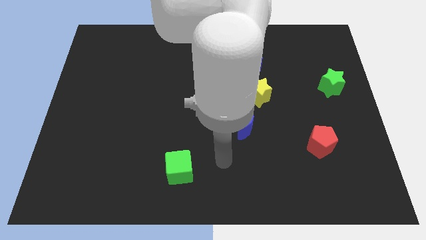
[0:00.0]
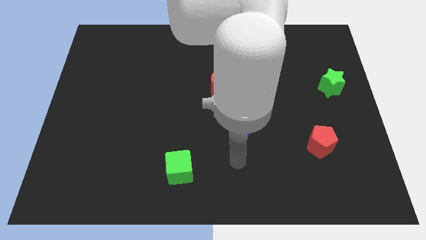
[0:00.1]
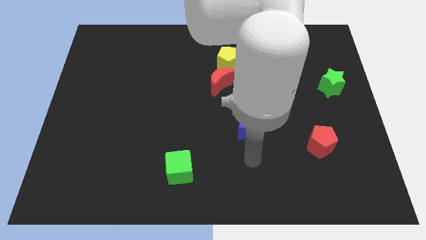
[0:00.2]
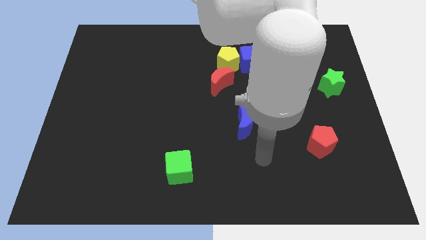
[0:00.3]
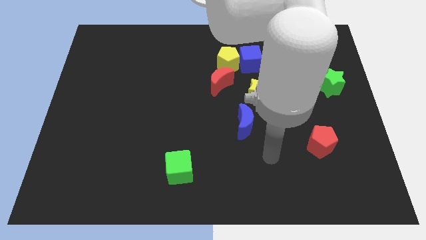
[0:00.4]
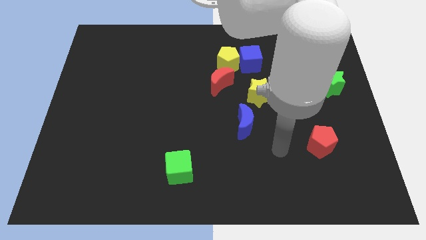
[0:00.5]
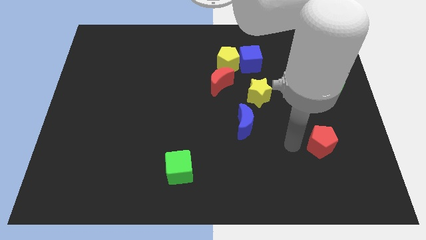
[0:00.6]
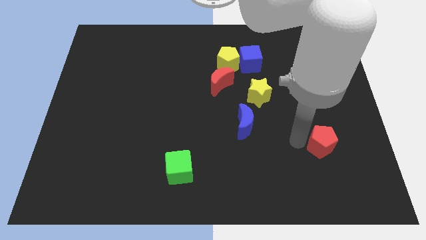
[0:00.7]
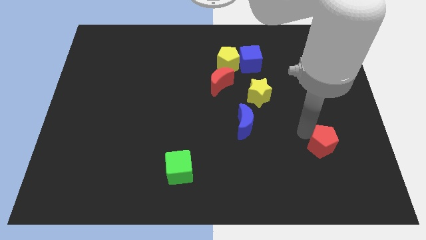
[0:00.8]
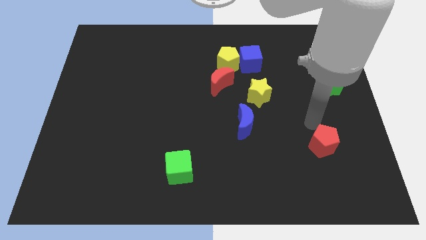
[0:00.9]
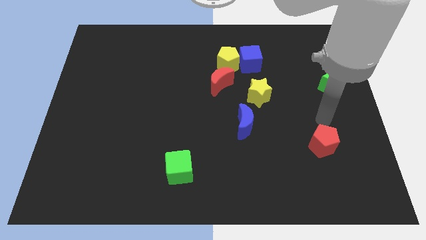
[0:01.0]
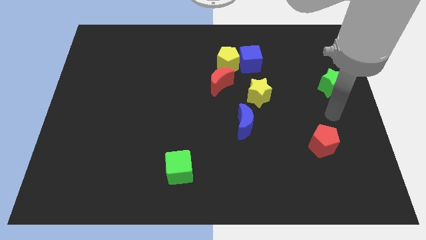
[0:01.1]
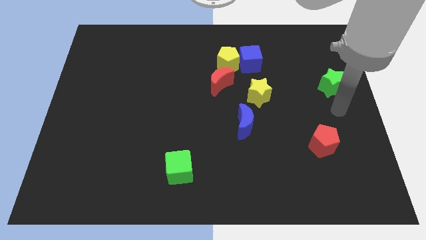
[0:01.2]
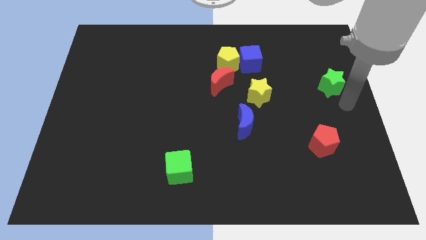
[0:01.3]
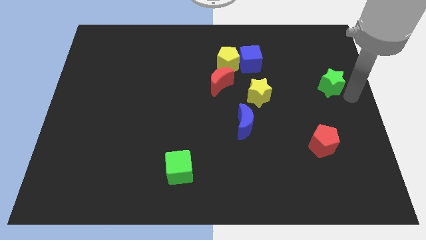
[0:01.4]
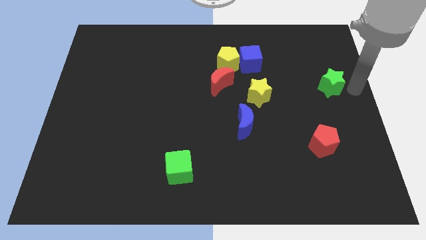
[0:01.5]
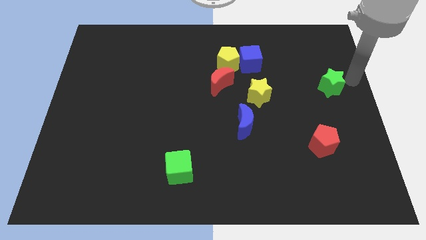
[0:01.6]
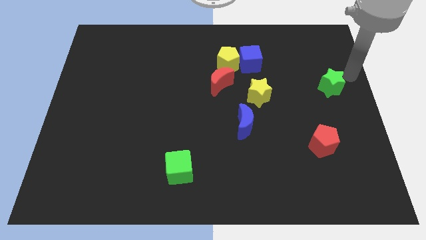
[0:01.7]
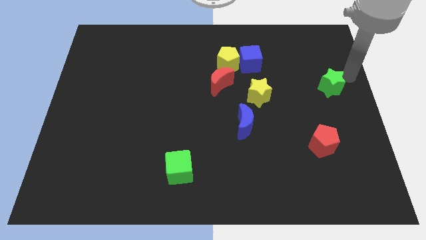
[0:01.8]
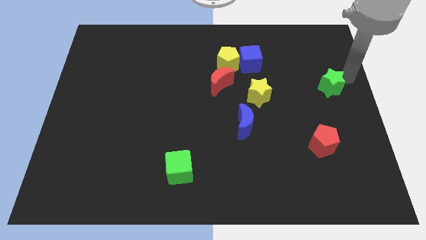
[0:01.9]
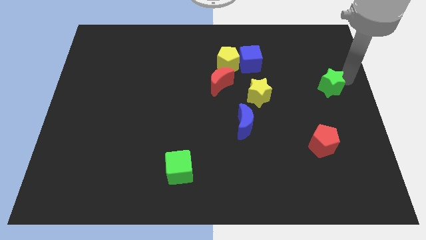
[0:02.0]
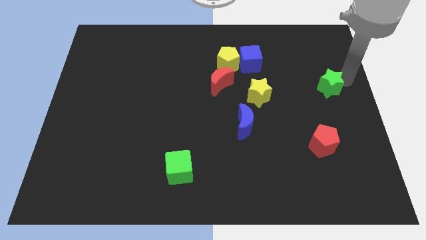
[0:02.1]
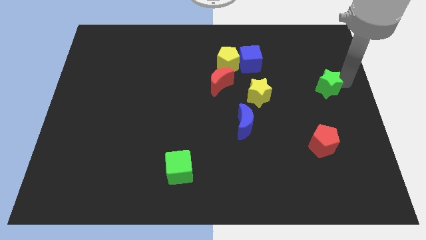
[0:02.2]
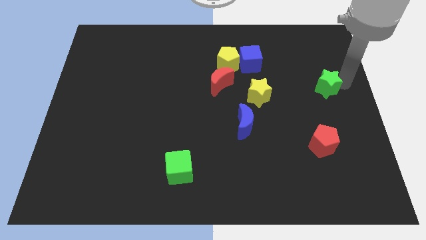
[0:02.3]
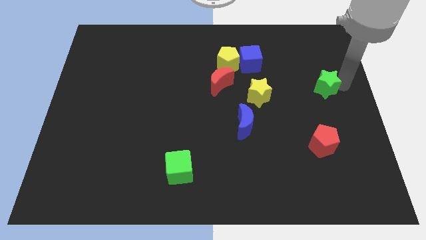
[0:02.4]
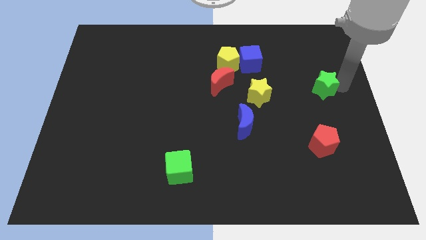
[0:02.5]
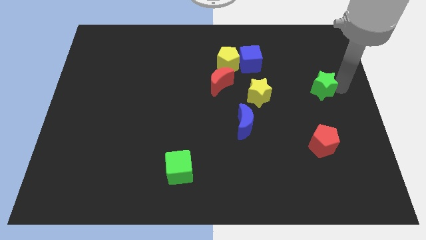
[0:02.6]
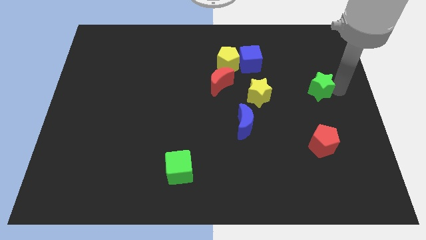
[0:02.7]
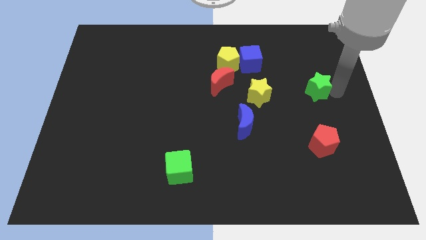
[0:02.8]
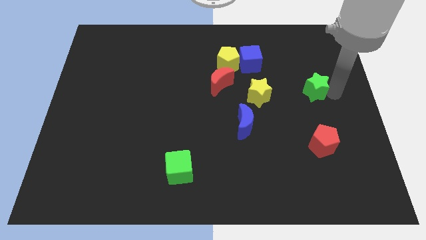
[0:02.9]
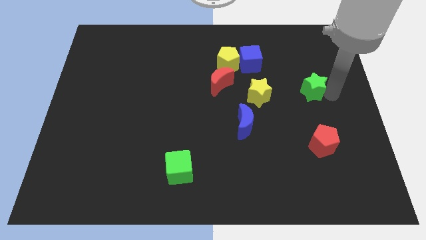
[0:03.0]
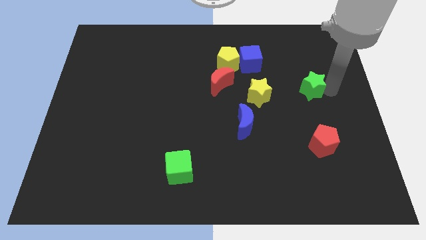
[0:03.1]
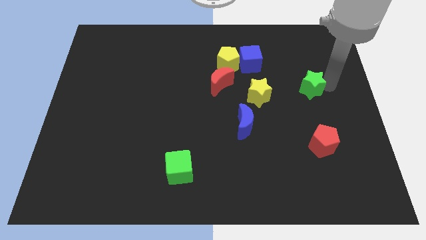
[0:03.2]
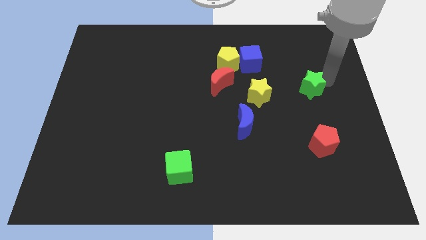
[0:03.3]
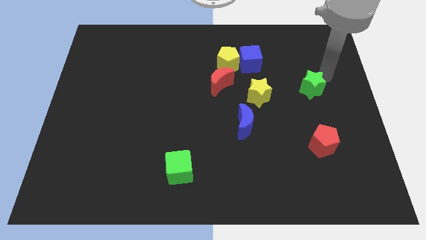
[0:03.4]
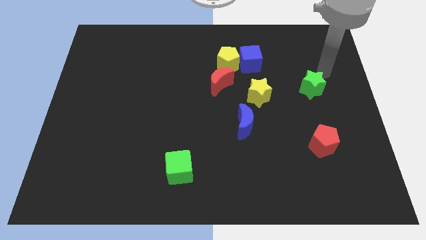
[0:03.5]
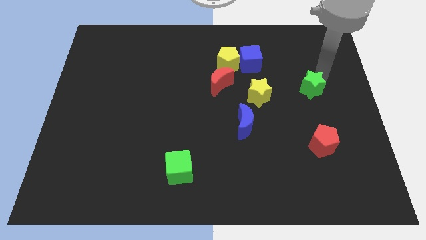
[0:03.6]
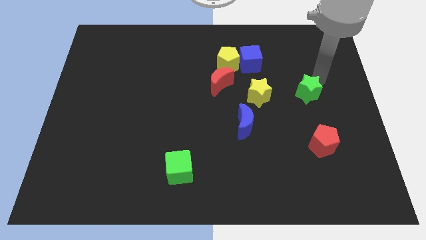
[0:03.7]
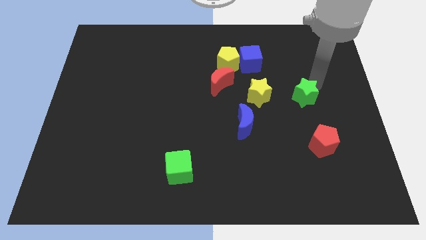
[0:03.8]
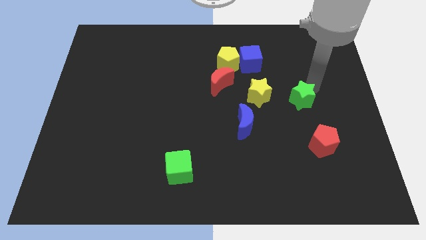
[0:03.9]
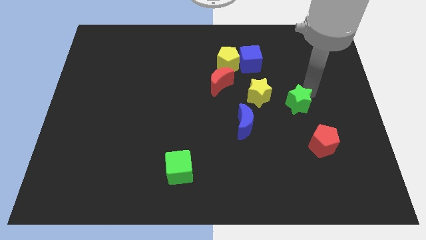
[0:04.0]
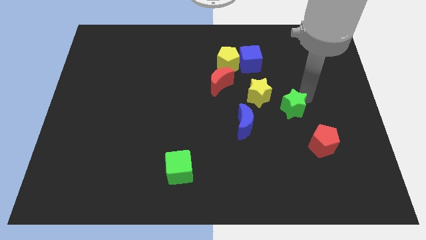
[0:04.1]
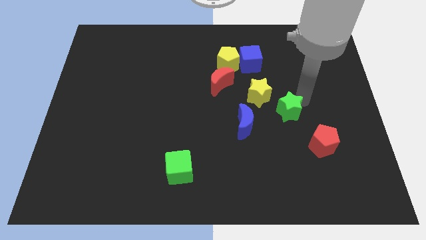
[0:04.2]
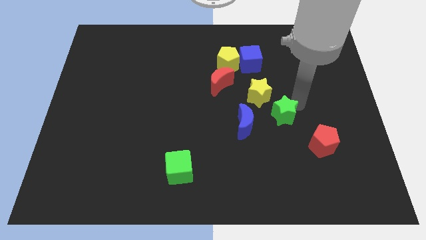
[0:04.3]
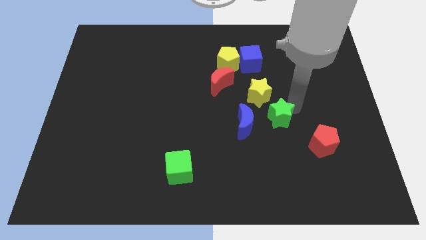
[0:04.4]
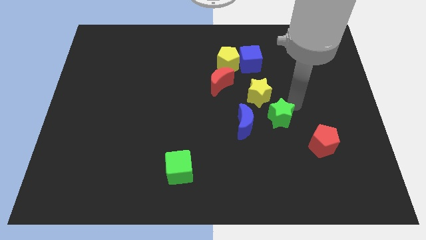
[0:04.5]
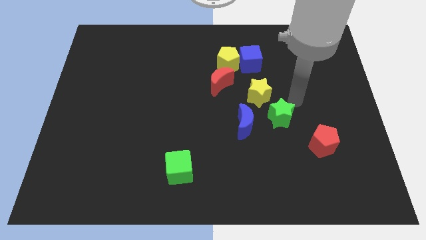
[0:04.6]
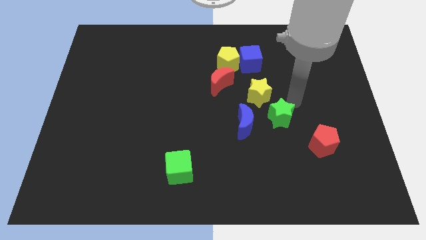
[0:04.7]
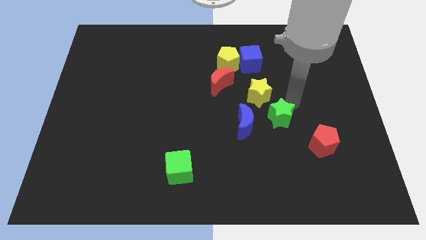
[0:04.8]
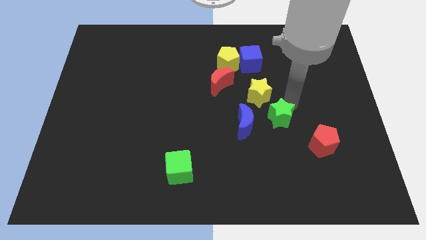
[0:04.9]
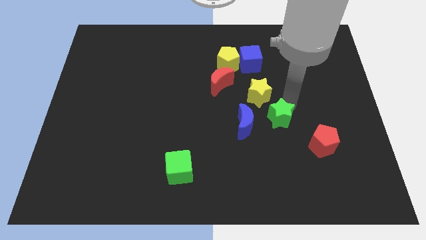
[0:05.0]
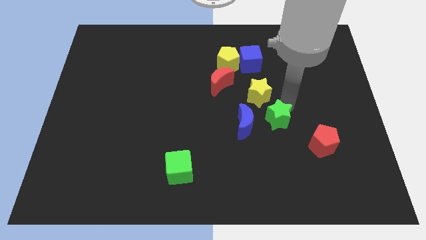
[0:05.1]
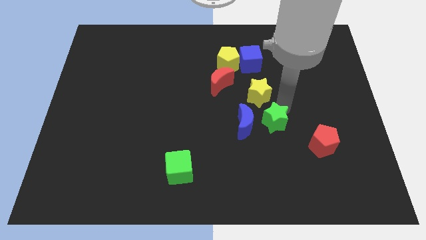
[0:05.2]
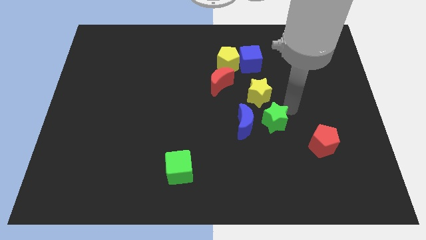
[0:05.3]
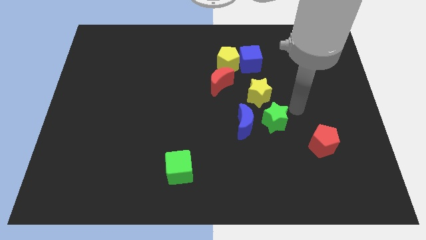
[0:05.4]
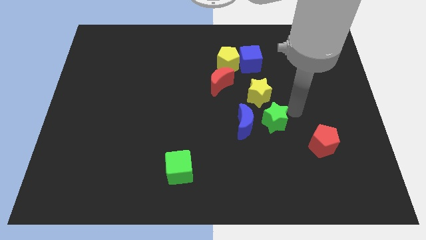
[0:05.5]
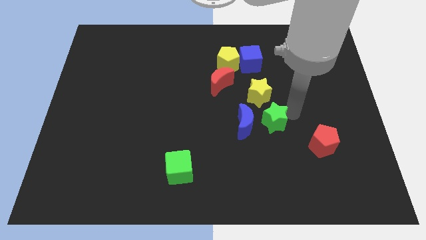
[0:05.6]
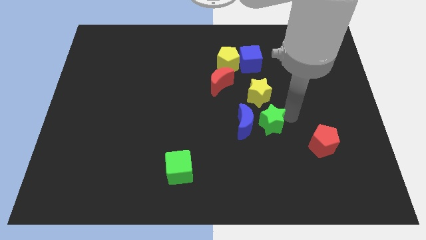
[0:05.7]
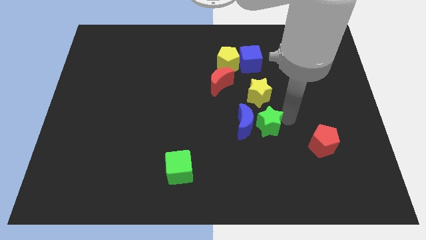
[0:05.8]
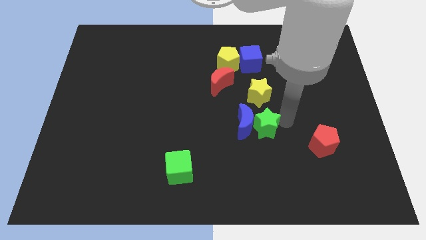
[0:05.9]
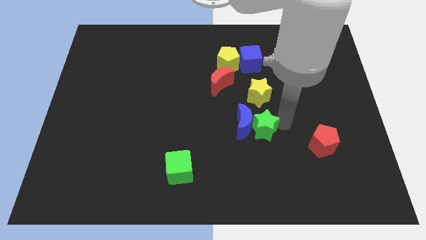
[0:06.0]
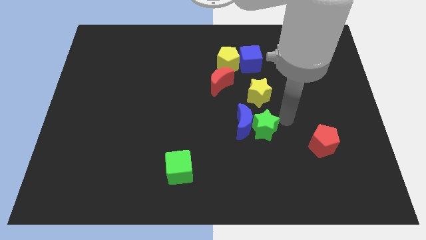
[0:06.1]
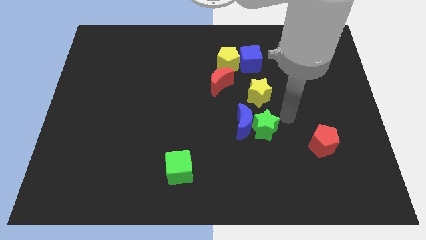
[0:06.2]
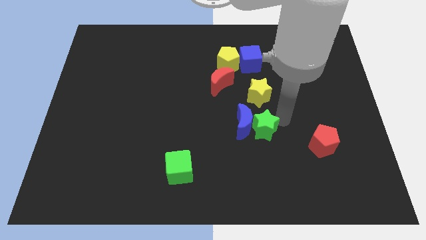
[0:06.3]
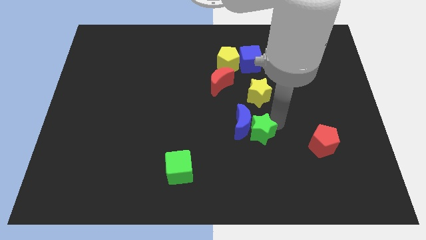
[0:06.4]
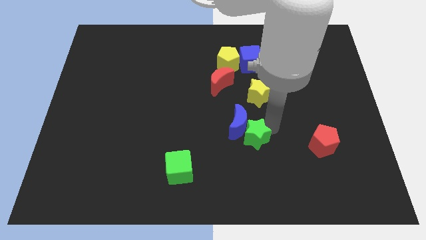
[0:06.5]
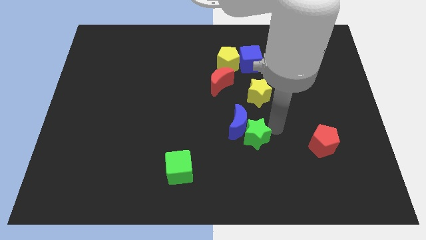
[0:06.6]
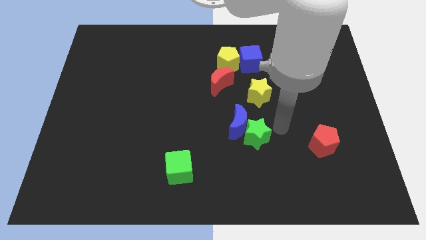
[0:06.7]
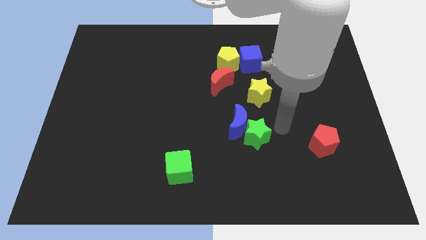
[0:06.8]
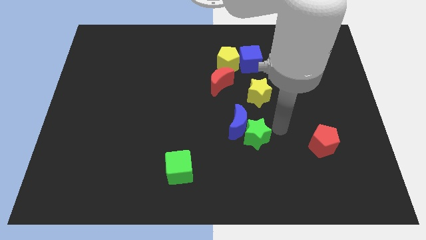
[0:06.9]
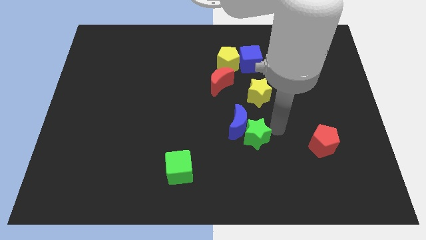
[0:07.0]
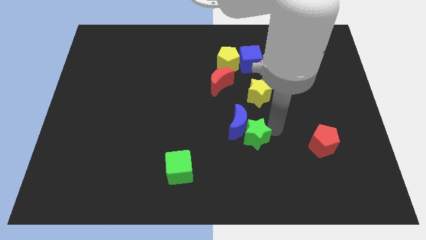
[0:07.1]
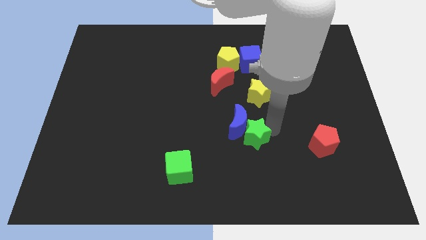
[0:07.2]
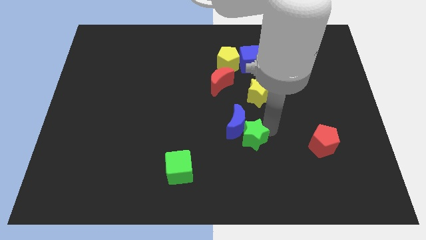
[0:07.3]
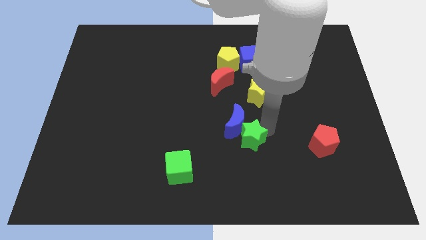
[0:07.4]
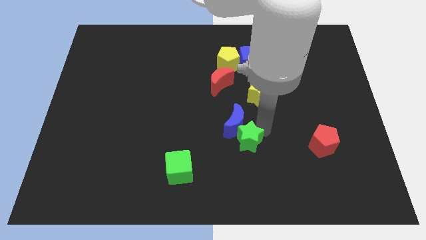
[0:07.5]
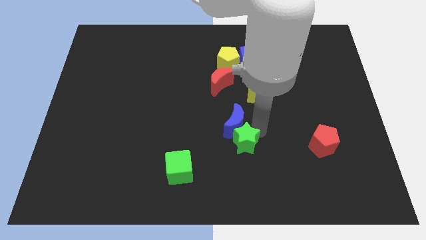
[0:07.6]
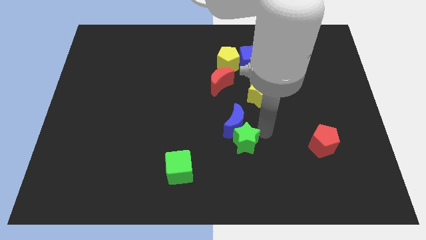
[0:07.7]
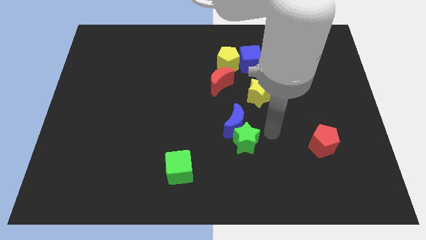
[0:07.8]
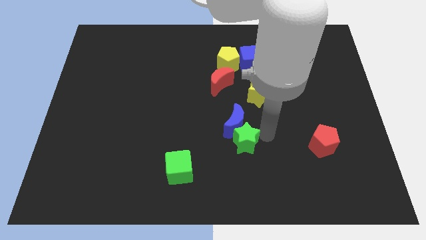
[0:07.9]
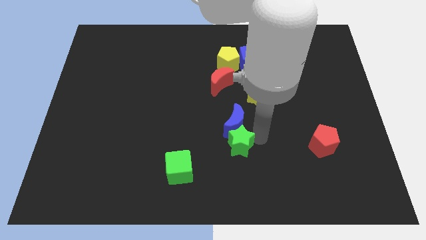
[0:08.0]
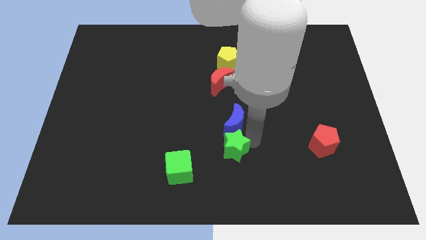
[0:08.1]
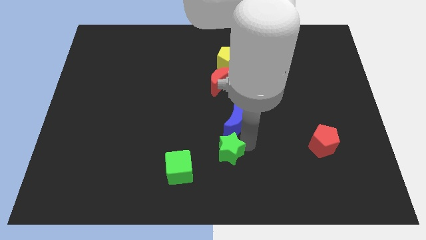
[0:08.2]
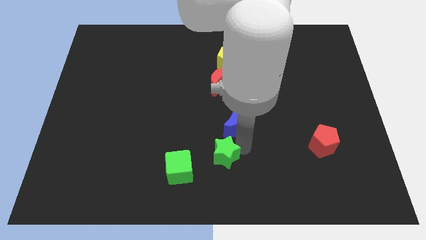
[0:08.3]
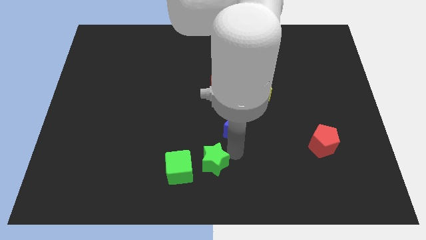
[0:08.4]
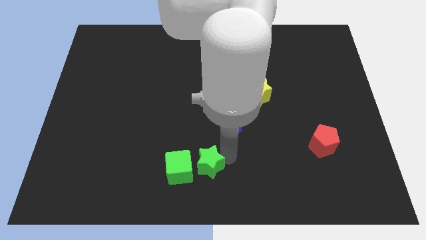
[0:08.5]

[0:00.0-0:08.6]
move the green star to the green cube
